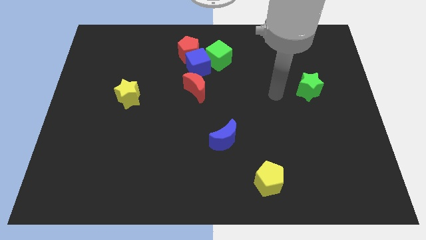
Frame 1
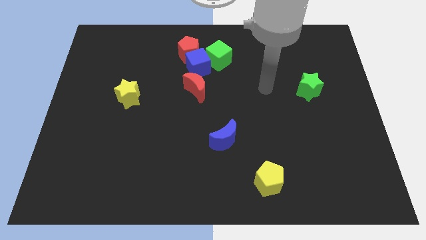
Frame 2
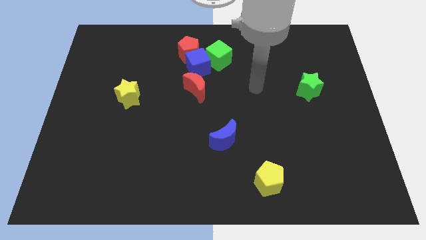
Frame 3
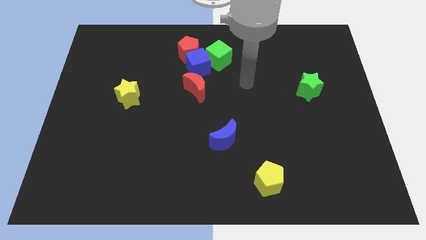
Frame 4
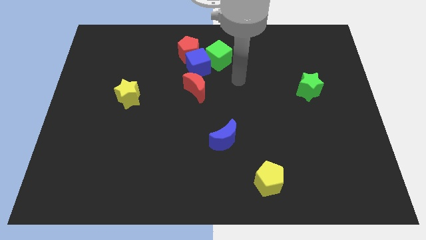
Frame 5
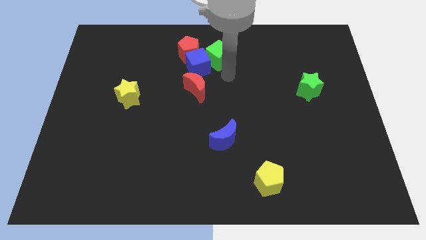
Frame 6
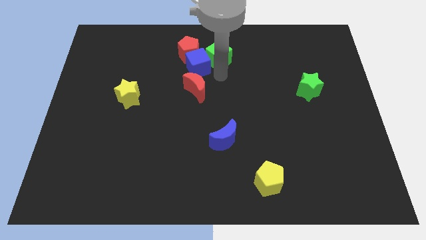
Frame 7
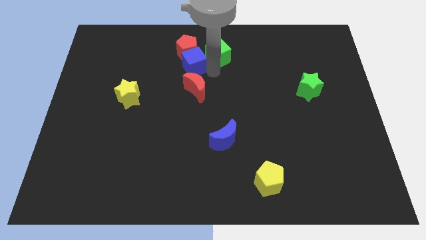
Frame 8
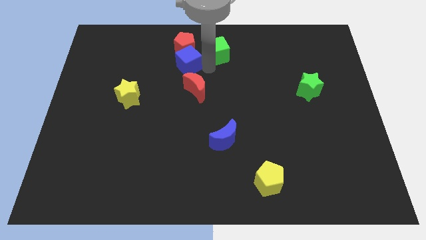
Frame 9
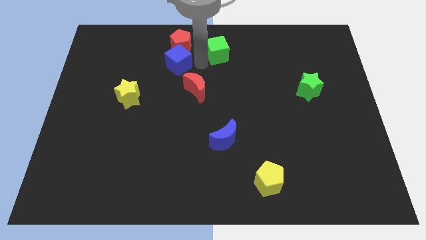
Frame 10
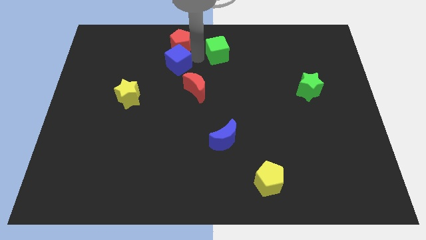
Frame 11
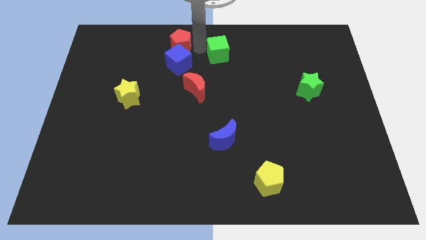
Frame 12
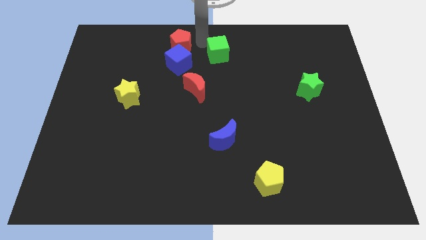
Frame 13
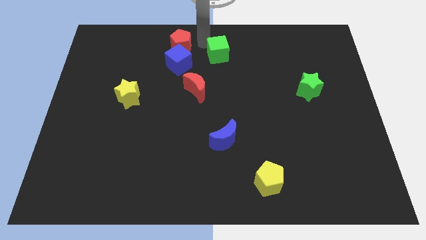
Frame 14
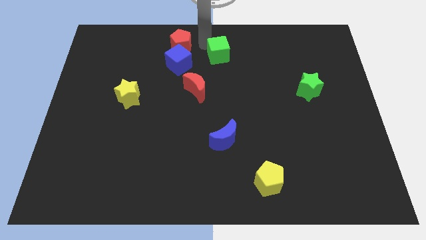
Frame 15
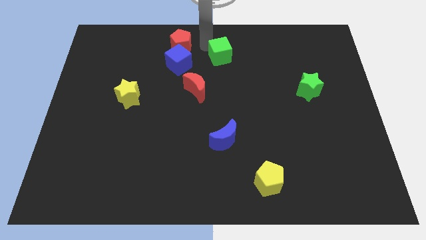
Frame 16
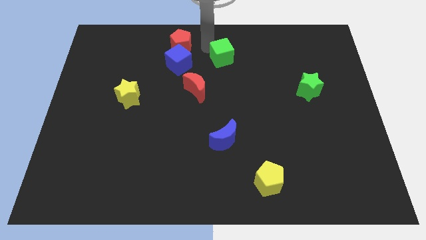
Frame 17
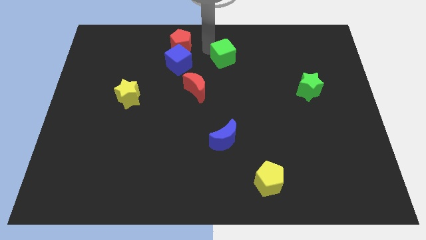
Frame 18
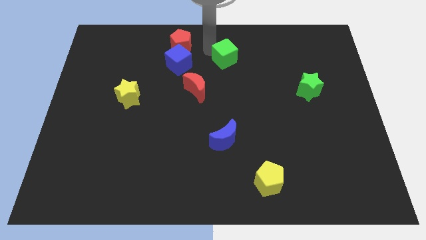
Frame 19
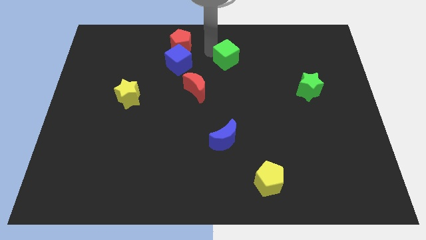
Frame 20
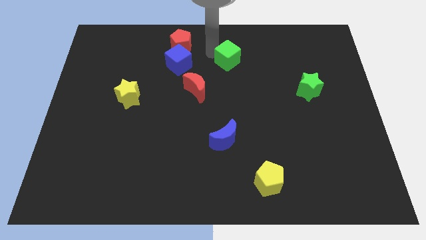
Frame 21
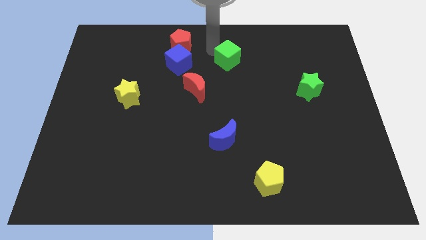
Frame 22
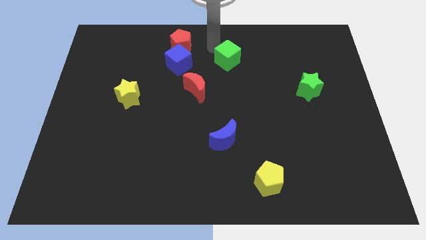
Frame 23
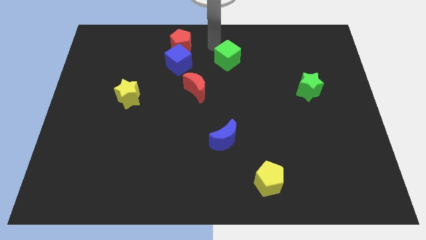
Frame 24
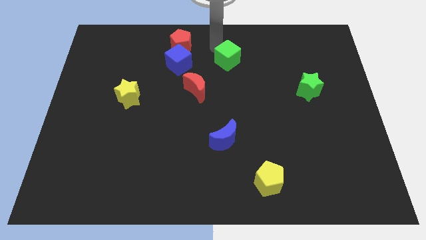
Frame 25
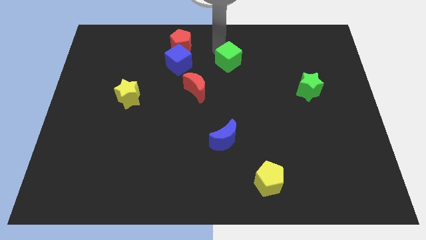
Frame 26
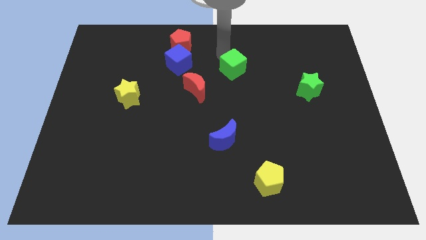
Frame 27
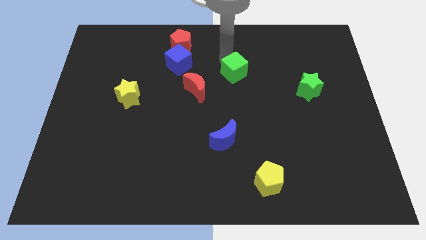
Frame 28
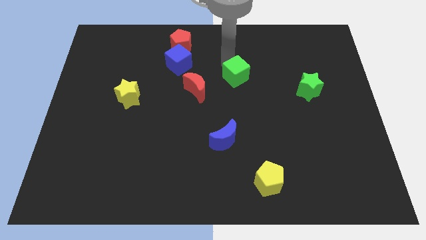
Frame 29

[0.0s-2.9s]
slide the green cube a little down and then right

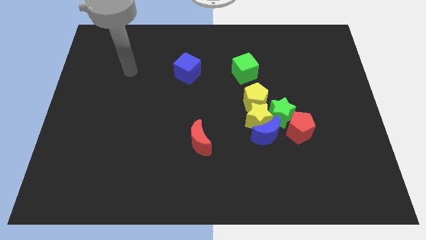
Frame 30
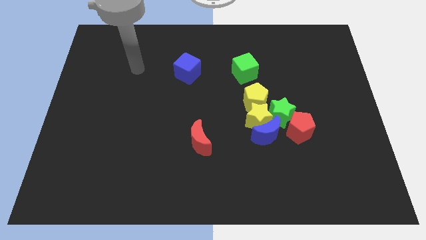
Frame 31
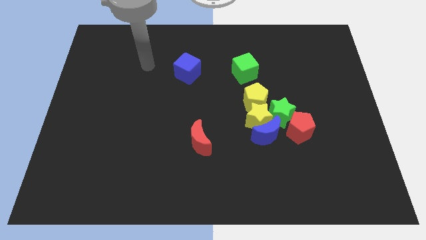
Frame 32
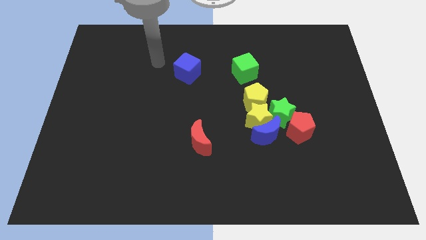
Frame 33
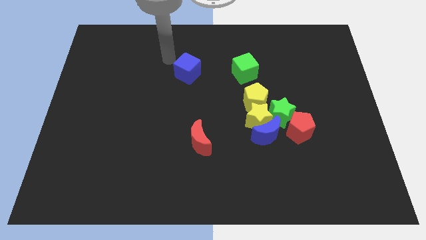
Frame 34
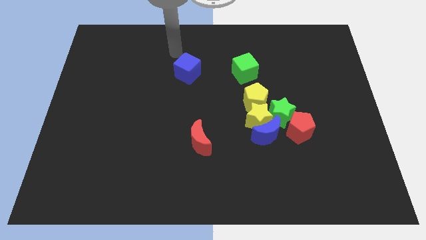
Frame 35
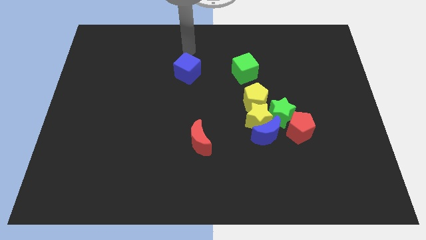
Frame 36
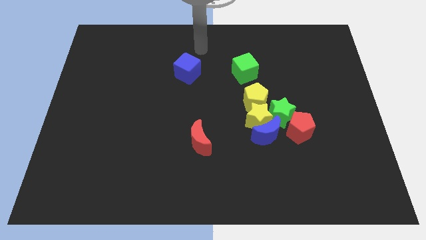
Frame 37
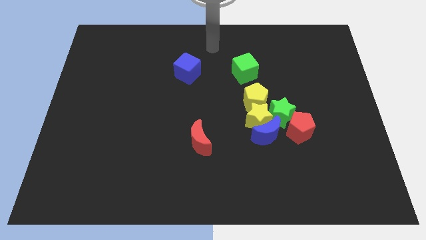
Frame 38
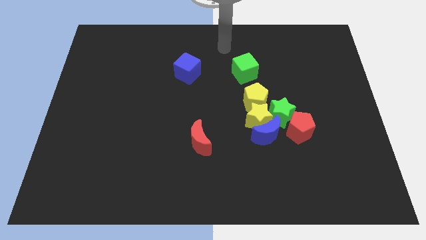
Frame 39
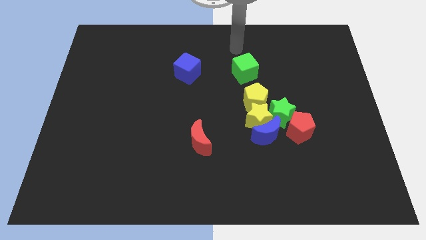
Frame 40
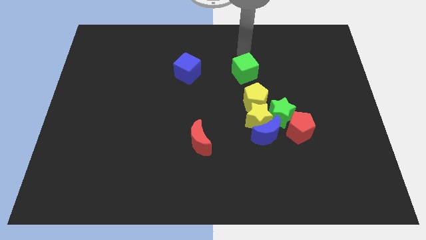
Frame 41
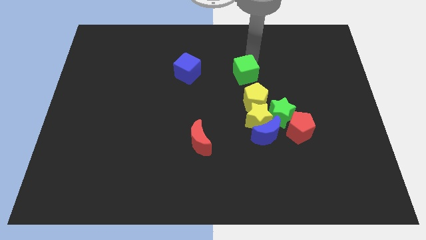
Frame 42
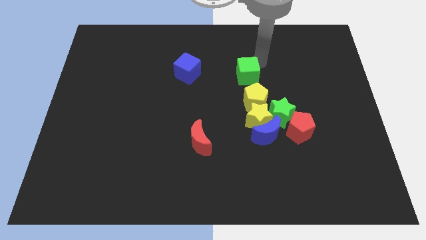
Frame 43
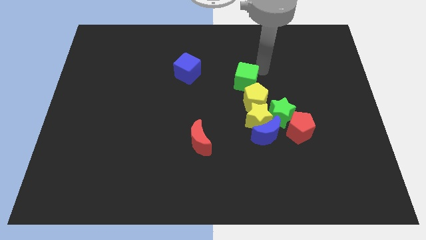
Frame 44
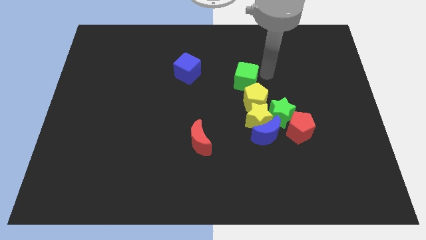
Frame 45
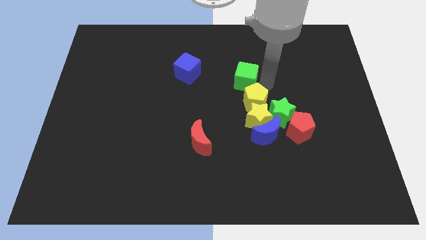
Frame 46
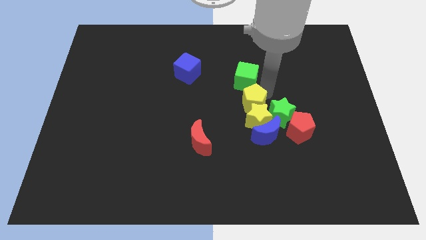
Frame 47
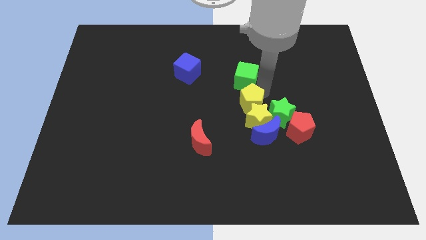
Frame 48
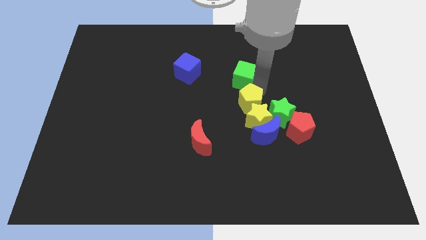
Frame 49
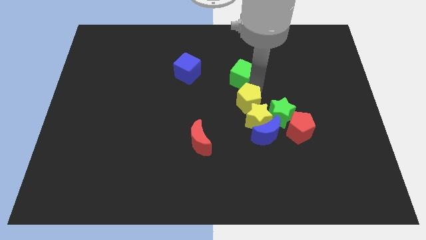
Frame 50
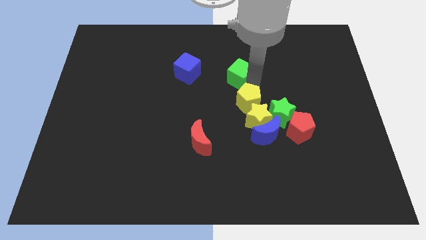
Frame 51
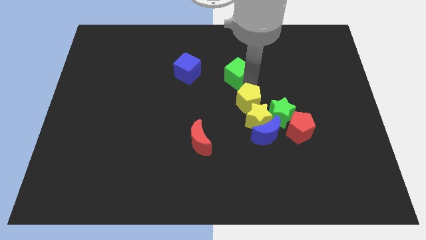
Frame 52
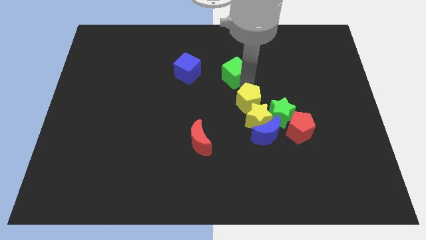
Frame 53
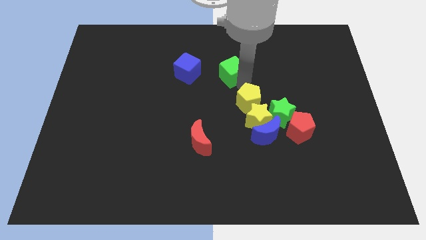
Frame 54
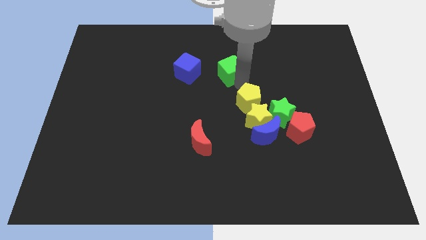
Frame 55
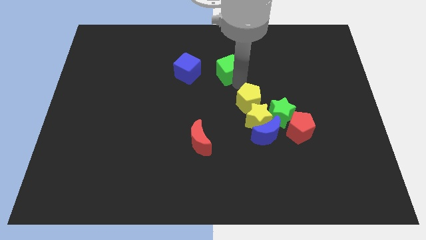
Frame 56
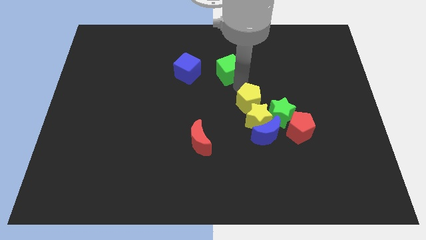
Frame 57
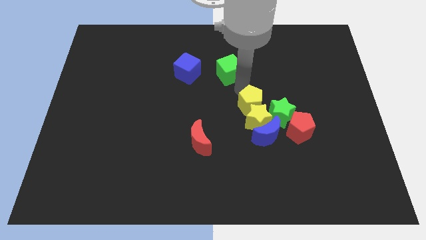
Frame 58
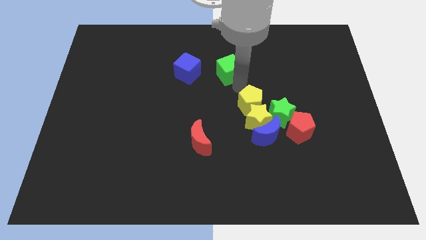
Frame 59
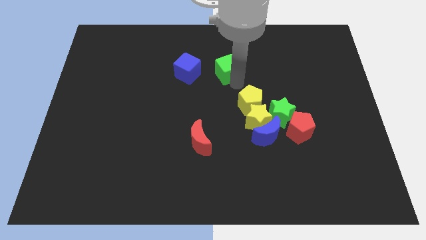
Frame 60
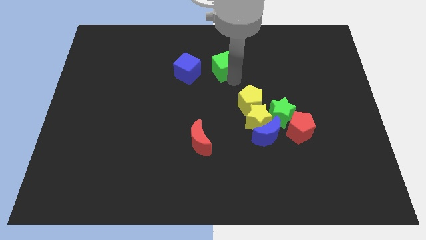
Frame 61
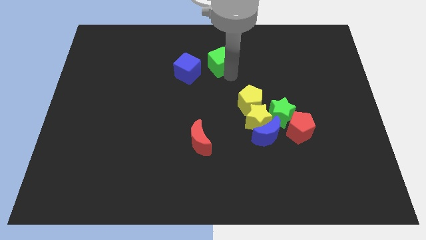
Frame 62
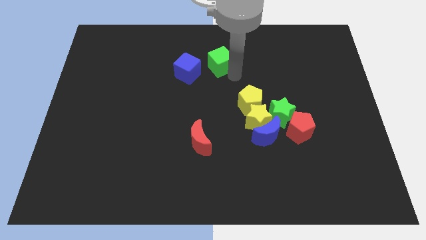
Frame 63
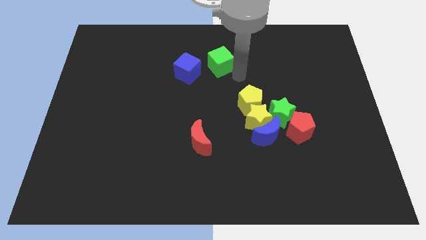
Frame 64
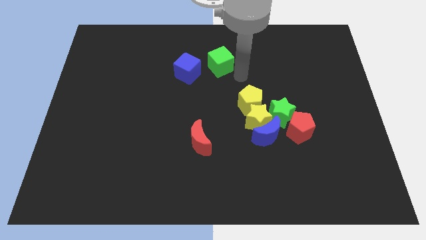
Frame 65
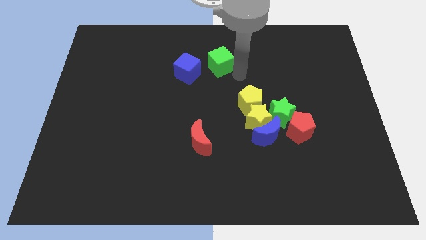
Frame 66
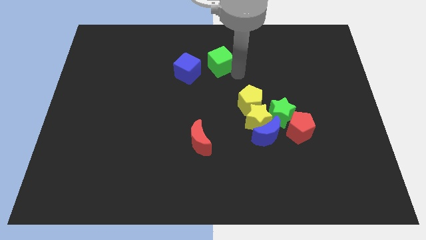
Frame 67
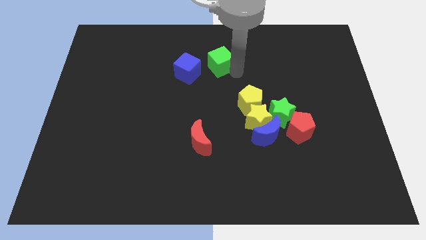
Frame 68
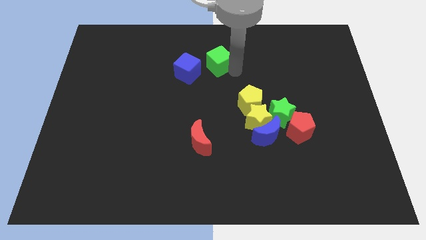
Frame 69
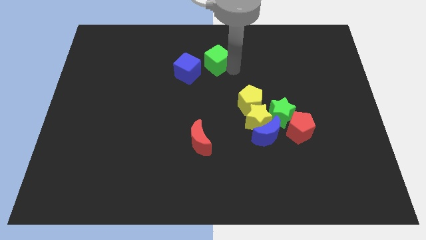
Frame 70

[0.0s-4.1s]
move the green cube a bit left

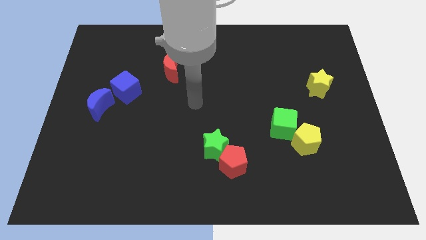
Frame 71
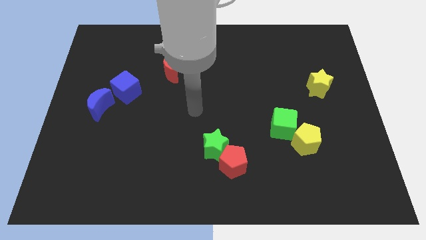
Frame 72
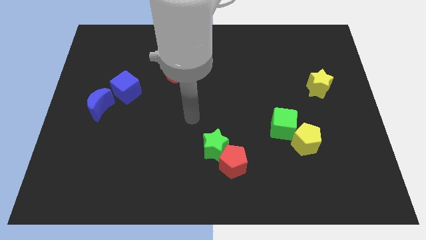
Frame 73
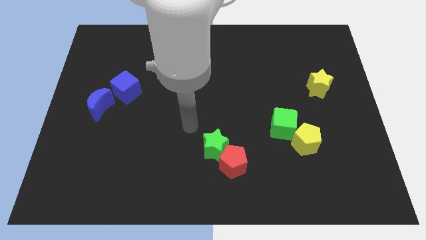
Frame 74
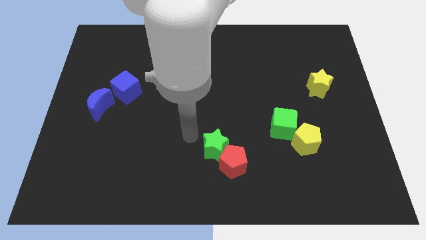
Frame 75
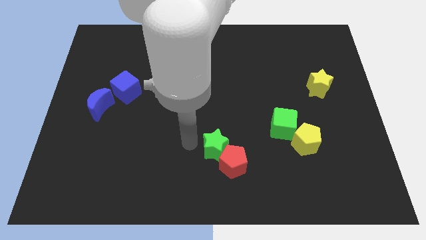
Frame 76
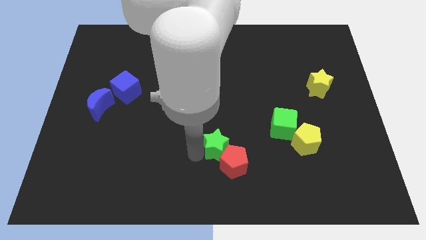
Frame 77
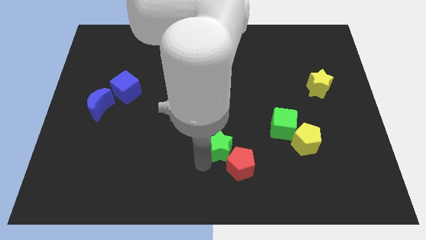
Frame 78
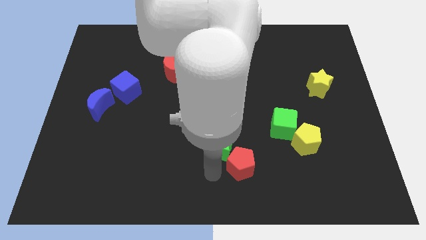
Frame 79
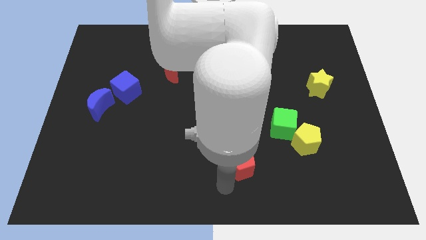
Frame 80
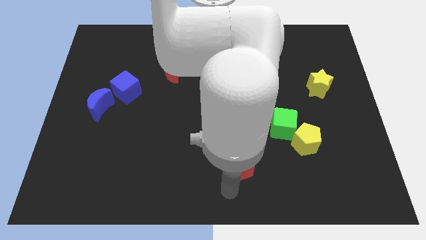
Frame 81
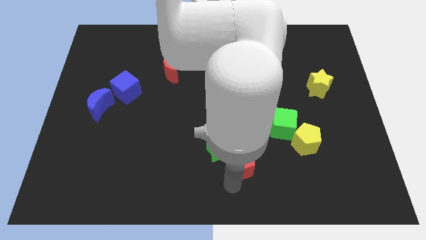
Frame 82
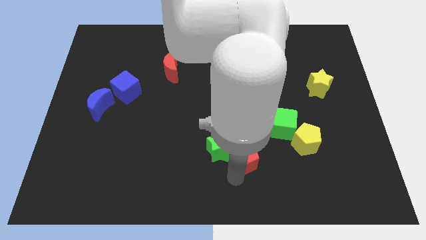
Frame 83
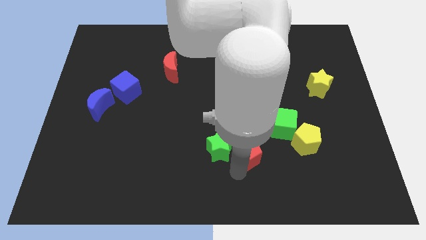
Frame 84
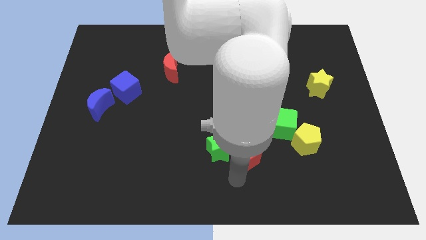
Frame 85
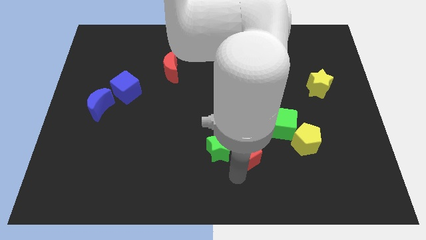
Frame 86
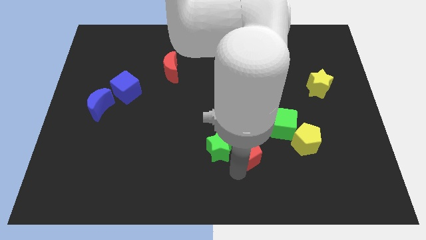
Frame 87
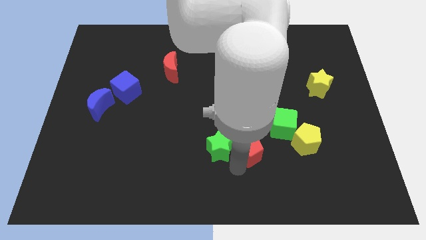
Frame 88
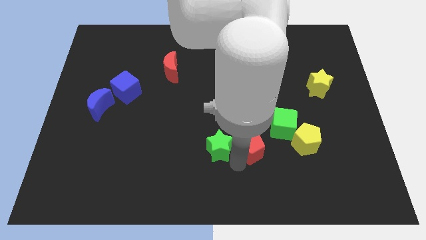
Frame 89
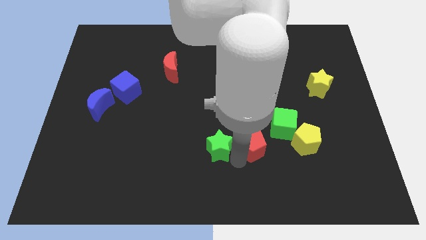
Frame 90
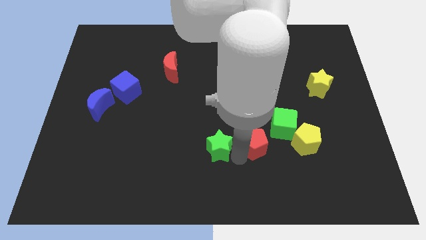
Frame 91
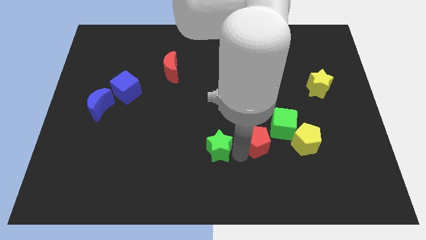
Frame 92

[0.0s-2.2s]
slightly slide the red pentagon diagonally up and to the right
